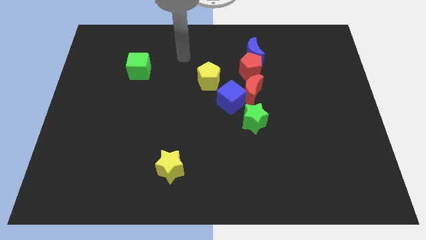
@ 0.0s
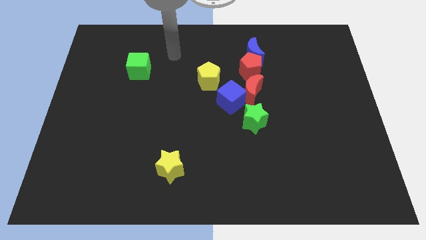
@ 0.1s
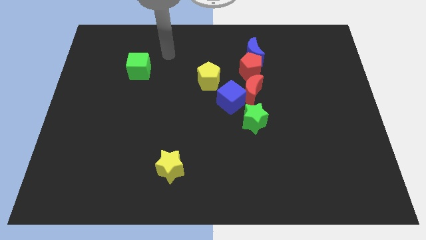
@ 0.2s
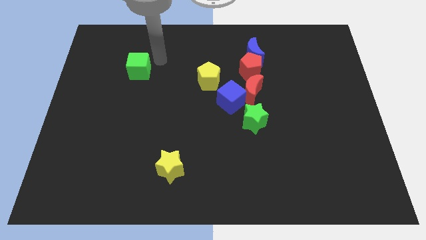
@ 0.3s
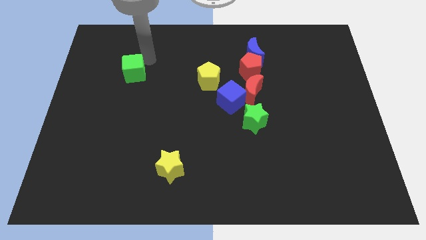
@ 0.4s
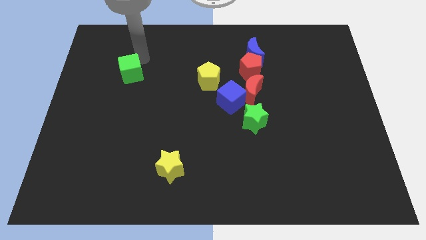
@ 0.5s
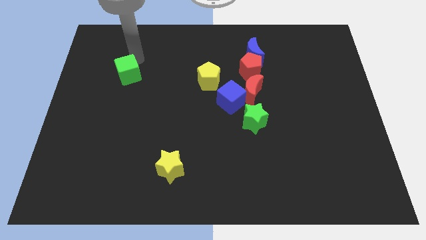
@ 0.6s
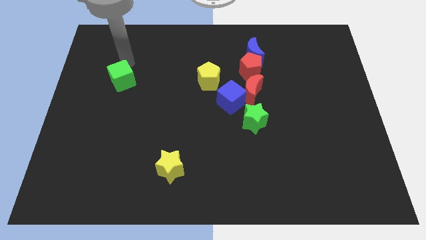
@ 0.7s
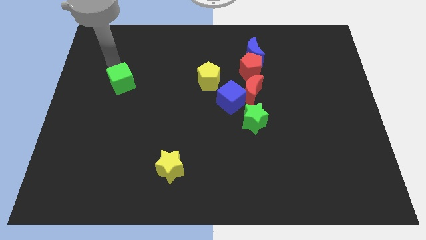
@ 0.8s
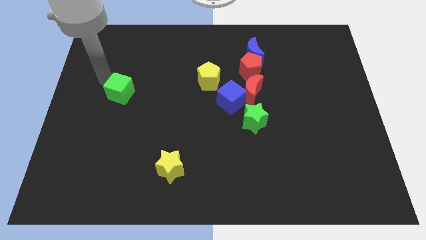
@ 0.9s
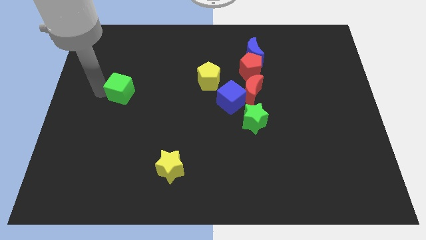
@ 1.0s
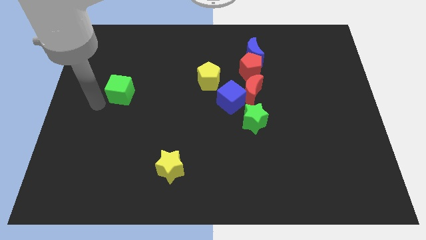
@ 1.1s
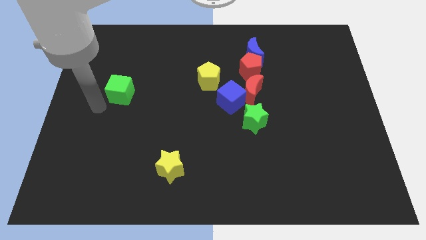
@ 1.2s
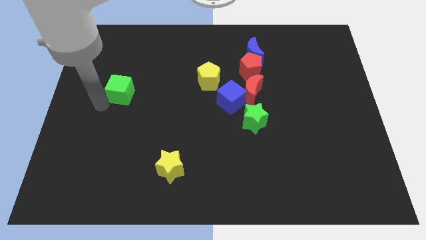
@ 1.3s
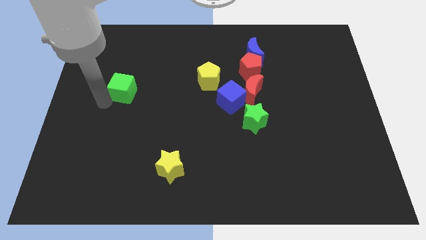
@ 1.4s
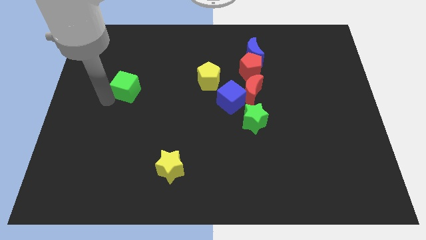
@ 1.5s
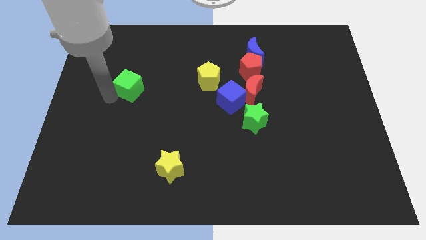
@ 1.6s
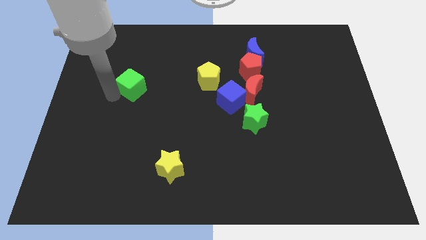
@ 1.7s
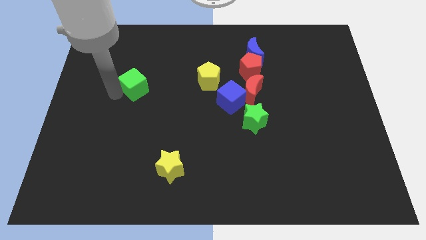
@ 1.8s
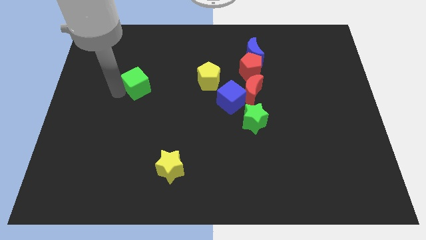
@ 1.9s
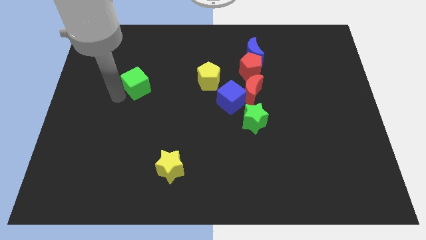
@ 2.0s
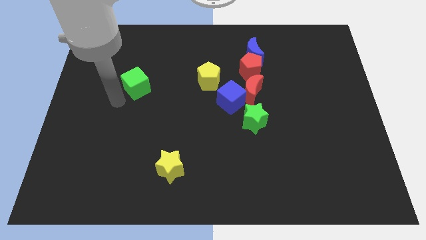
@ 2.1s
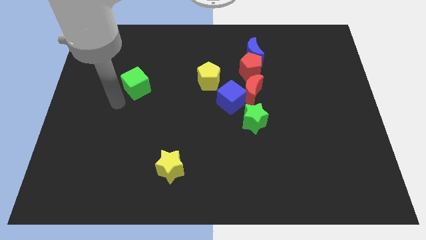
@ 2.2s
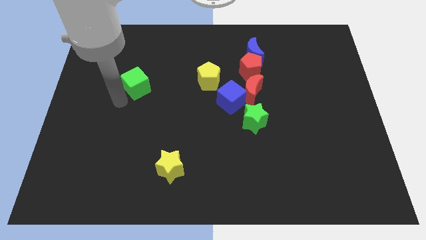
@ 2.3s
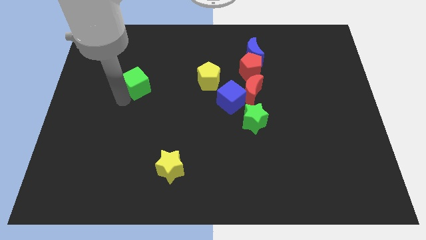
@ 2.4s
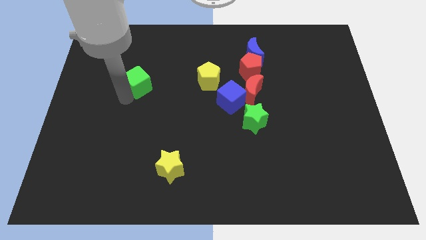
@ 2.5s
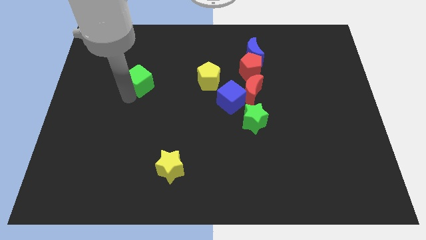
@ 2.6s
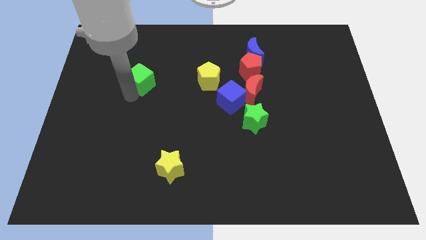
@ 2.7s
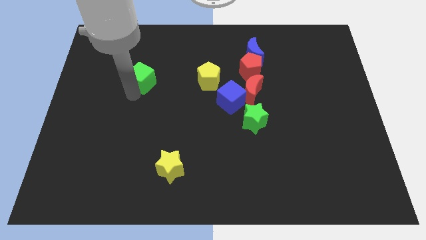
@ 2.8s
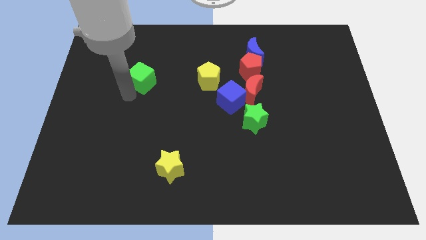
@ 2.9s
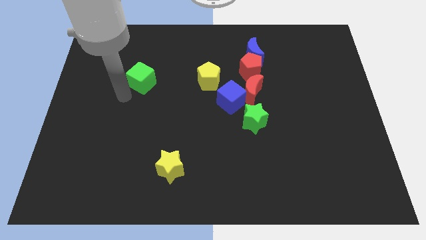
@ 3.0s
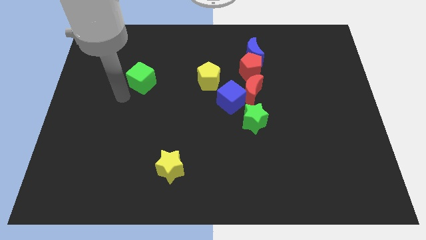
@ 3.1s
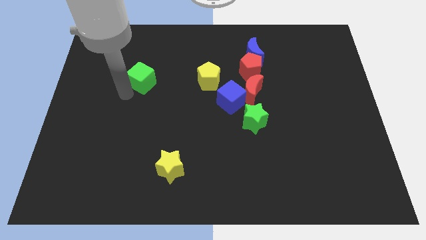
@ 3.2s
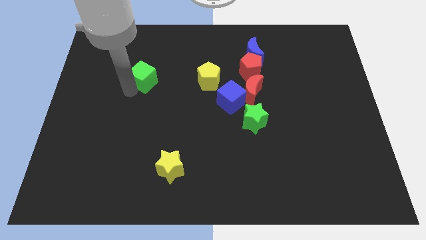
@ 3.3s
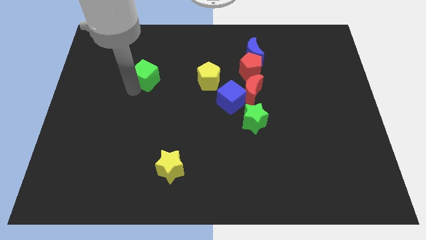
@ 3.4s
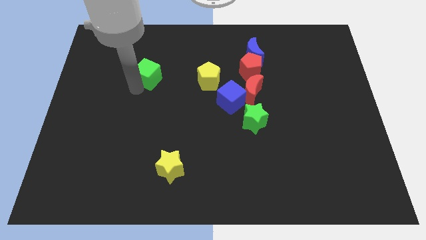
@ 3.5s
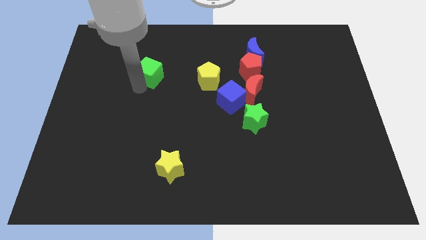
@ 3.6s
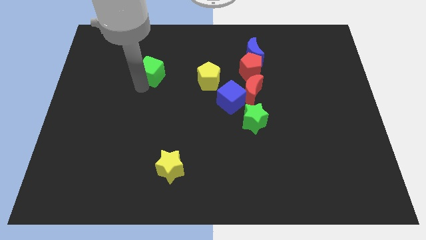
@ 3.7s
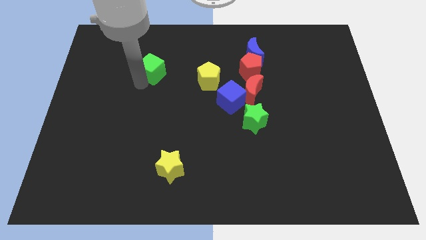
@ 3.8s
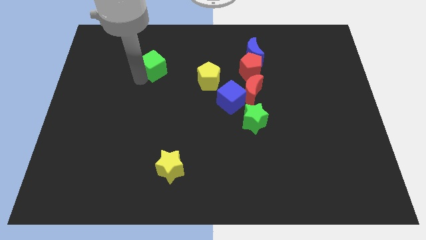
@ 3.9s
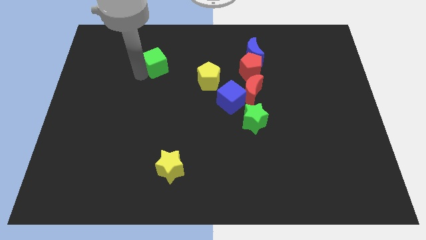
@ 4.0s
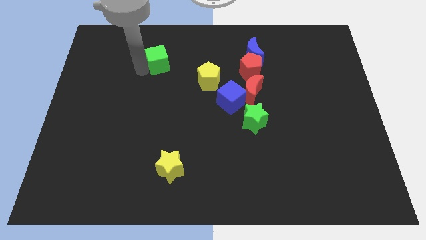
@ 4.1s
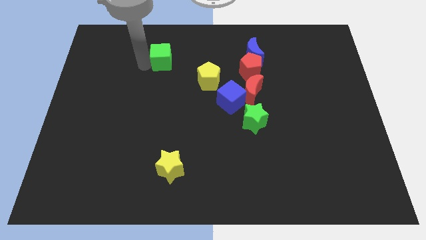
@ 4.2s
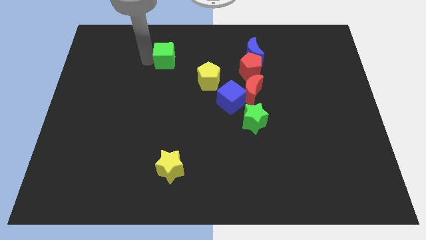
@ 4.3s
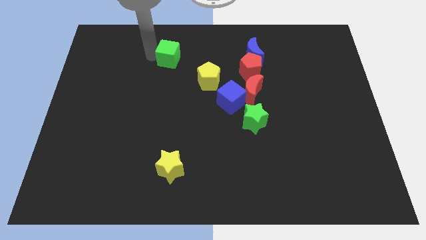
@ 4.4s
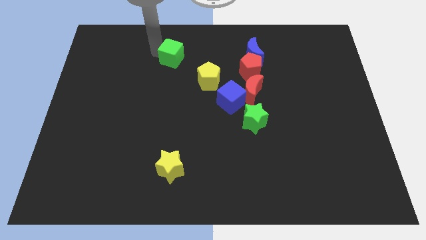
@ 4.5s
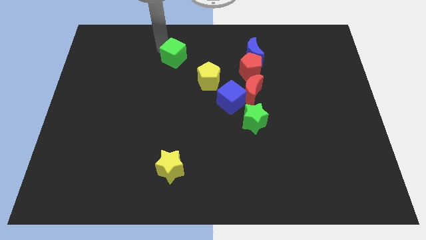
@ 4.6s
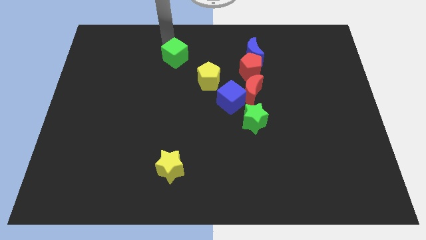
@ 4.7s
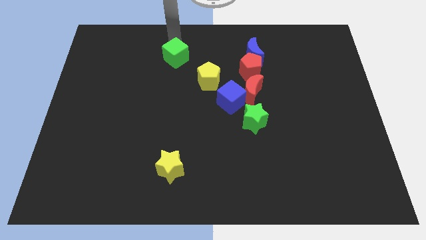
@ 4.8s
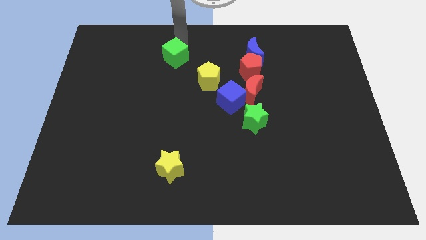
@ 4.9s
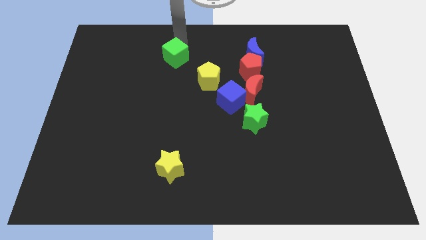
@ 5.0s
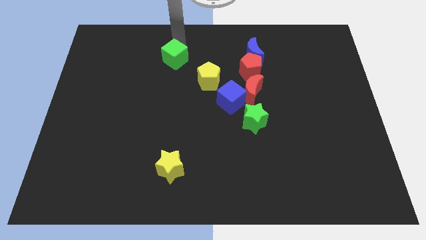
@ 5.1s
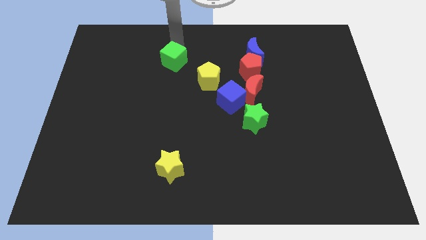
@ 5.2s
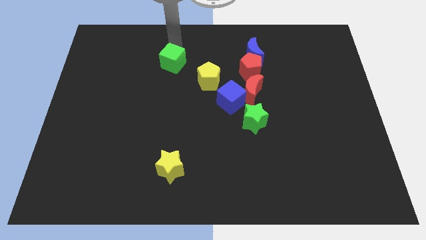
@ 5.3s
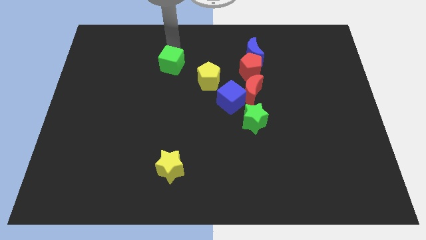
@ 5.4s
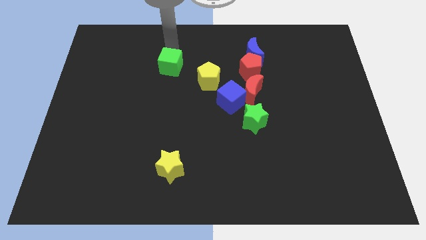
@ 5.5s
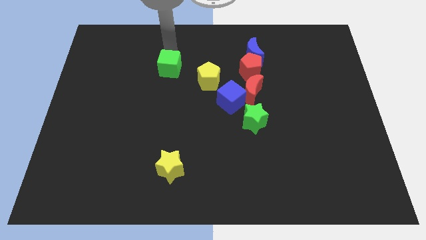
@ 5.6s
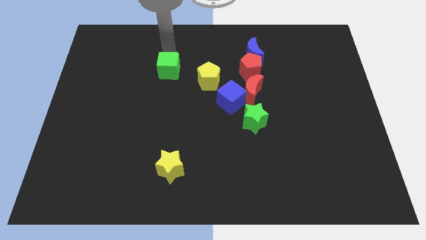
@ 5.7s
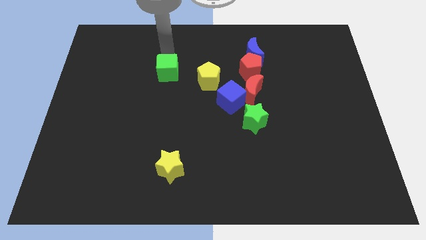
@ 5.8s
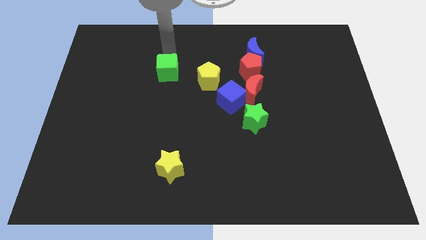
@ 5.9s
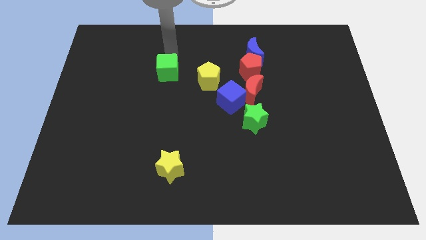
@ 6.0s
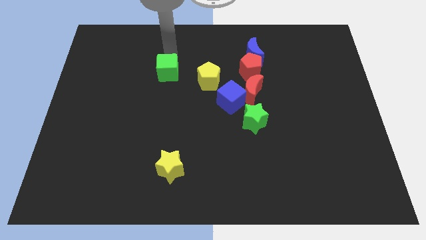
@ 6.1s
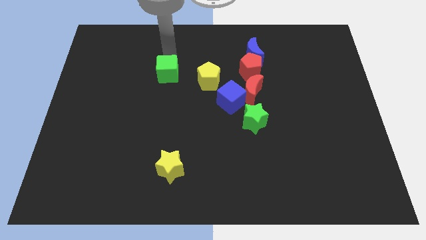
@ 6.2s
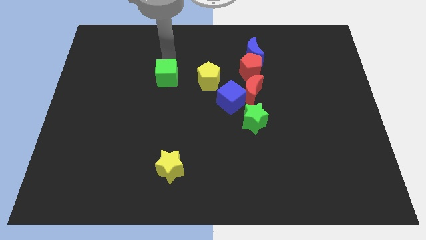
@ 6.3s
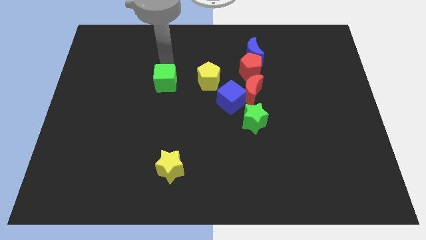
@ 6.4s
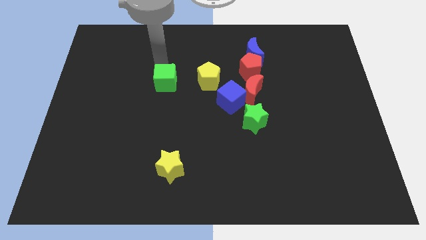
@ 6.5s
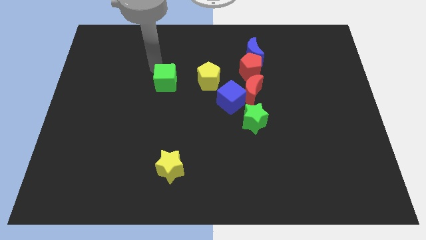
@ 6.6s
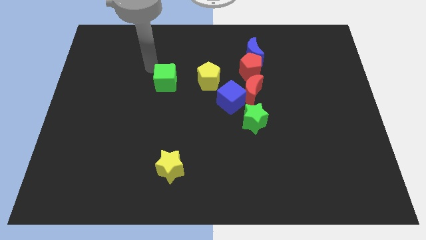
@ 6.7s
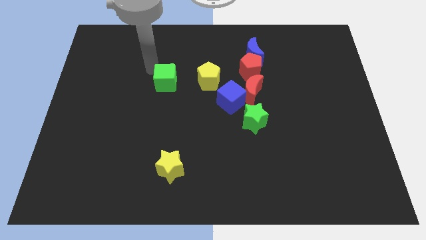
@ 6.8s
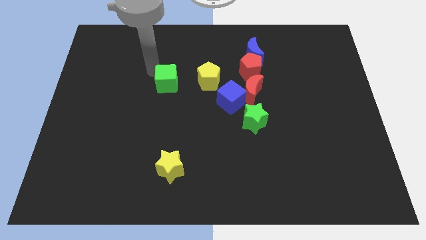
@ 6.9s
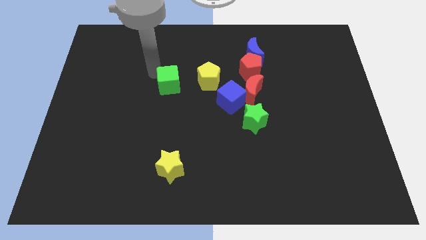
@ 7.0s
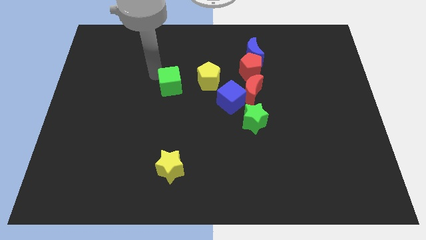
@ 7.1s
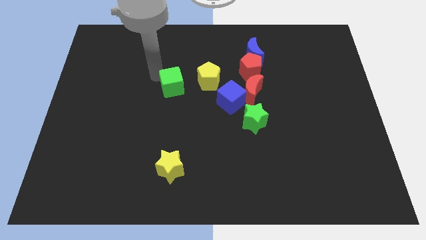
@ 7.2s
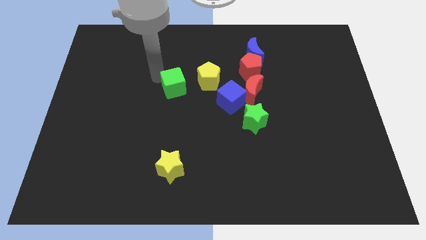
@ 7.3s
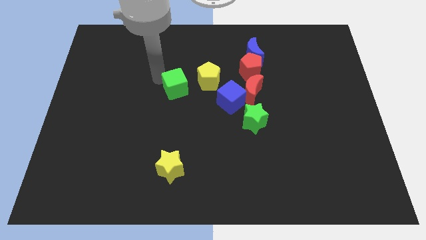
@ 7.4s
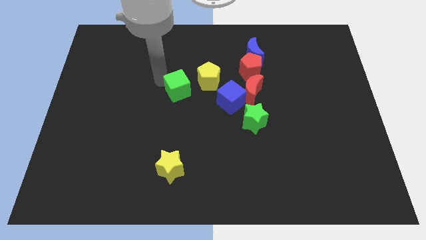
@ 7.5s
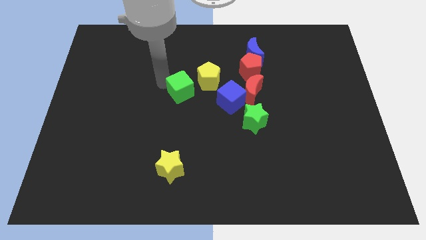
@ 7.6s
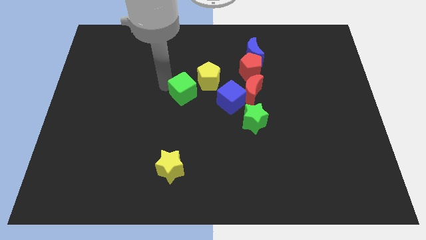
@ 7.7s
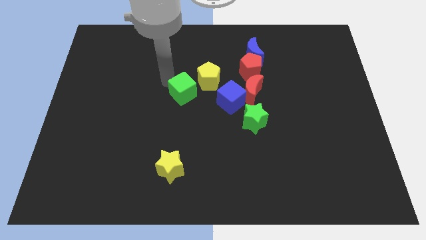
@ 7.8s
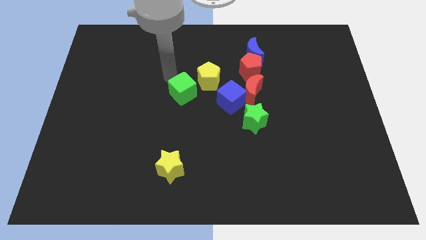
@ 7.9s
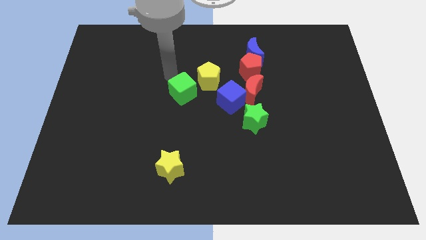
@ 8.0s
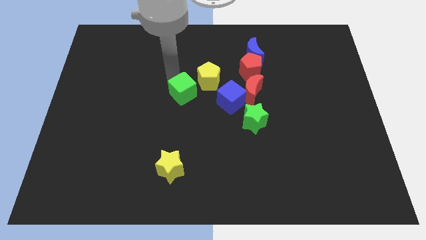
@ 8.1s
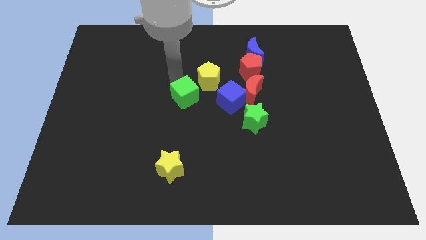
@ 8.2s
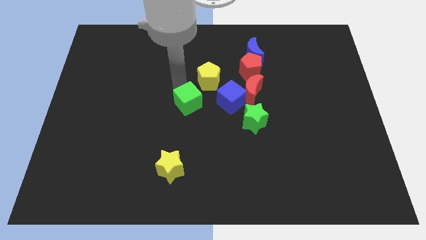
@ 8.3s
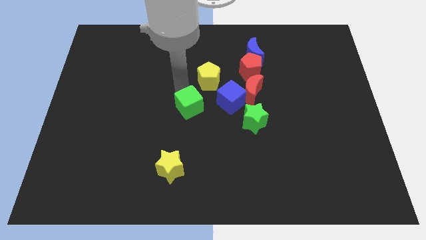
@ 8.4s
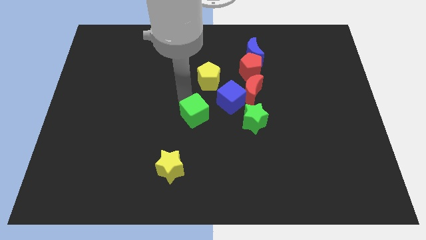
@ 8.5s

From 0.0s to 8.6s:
push the green cube diagonally downwards and to the right
